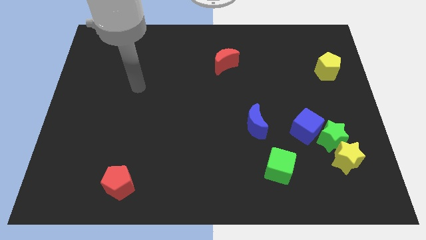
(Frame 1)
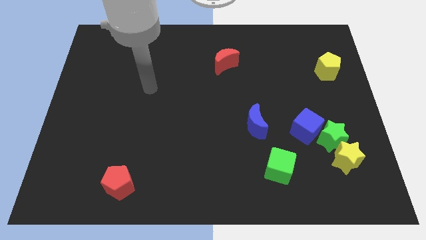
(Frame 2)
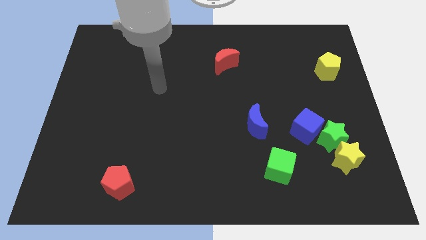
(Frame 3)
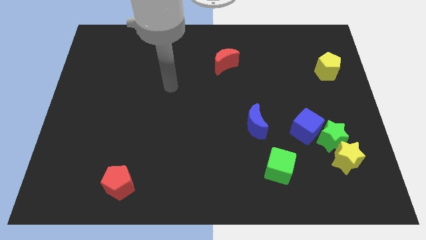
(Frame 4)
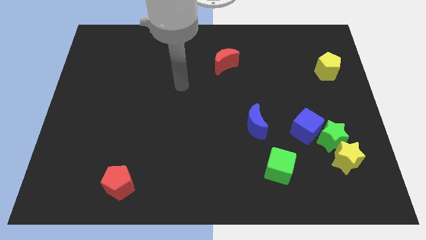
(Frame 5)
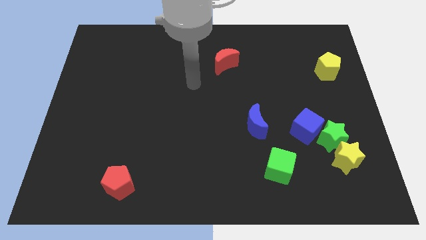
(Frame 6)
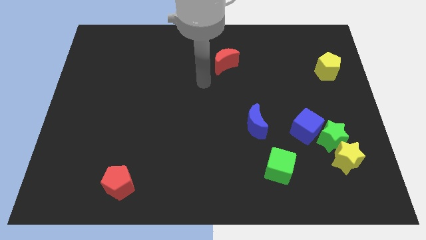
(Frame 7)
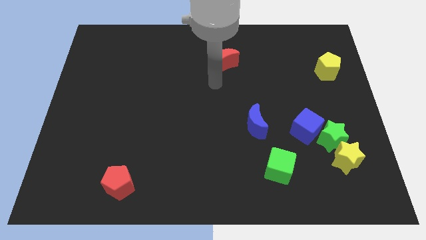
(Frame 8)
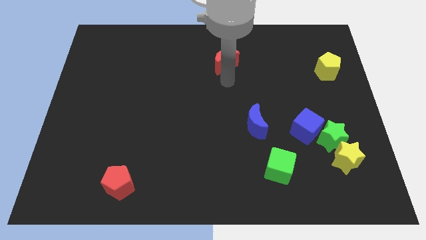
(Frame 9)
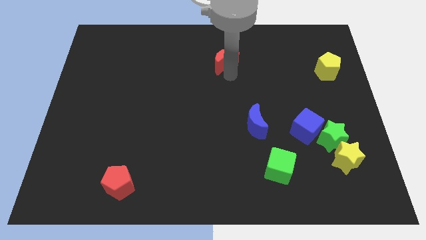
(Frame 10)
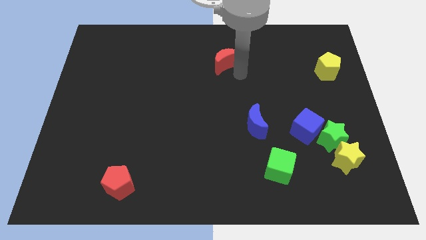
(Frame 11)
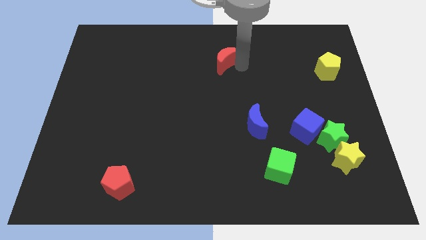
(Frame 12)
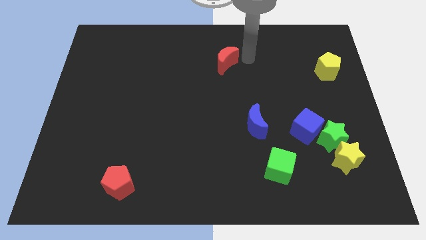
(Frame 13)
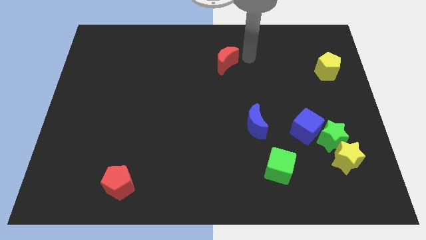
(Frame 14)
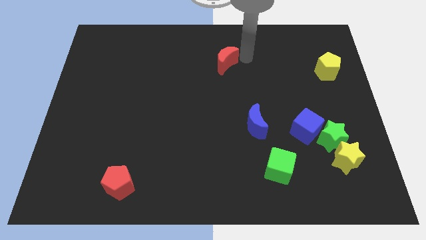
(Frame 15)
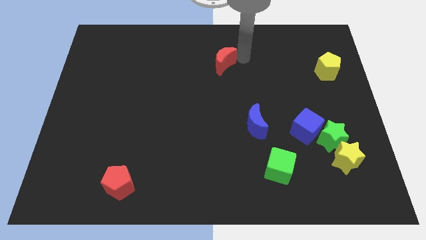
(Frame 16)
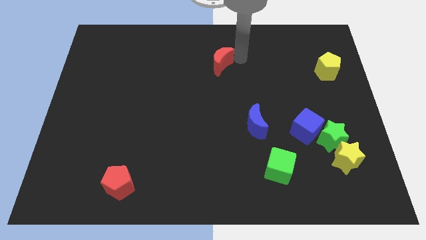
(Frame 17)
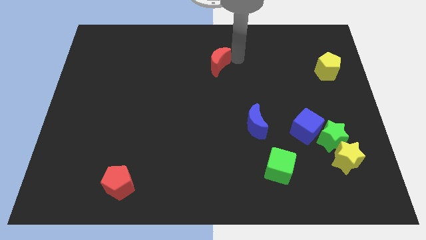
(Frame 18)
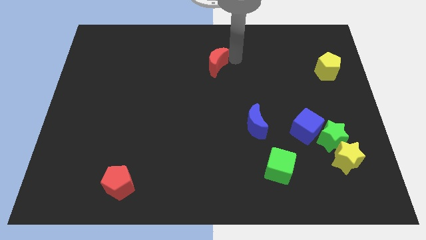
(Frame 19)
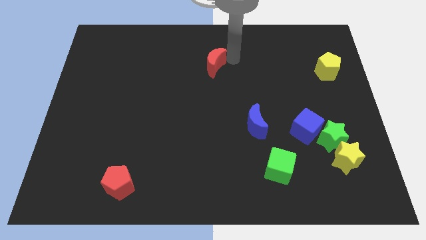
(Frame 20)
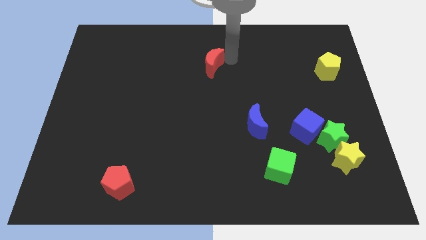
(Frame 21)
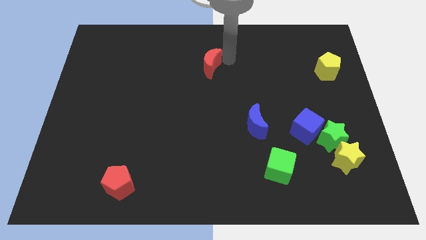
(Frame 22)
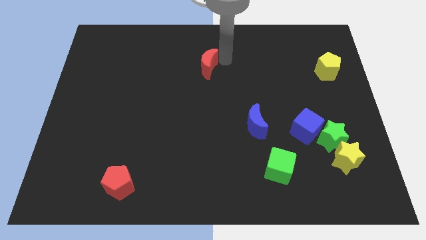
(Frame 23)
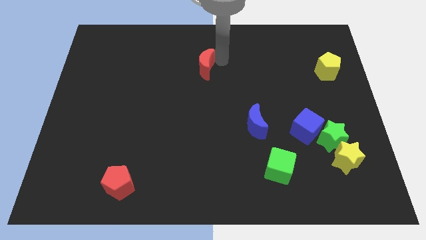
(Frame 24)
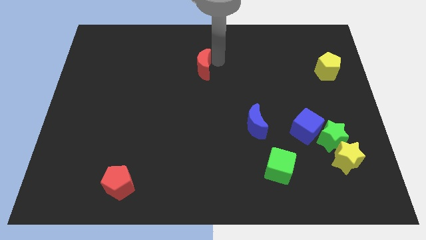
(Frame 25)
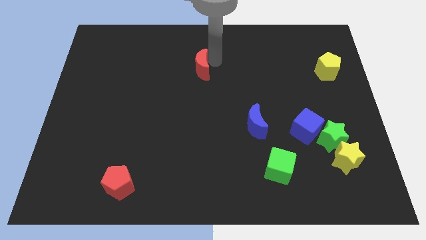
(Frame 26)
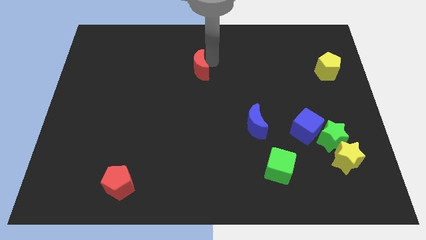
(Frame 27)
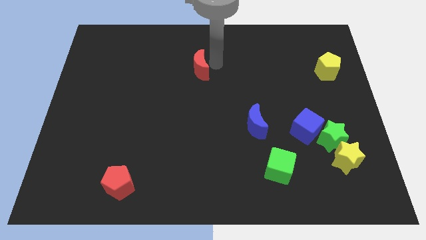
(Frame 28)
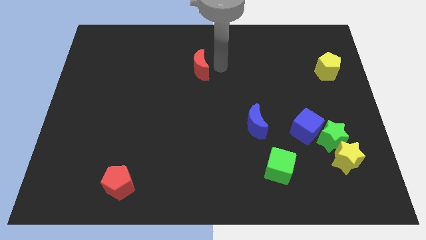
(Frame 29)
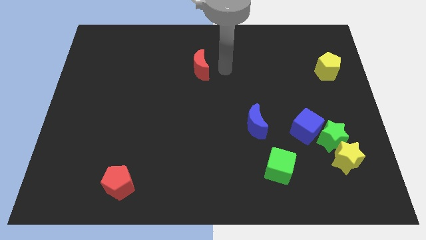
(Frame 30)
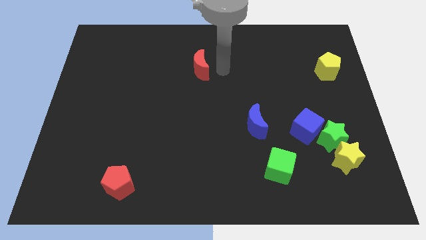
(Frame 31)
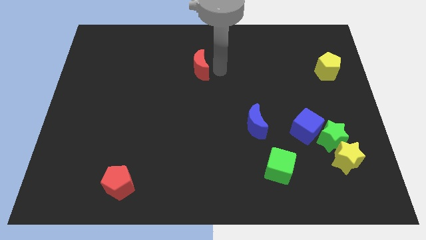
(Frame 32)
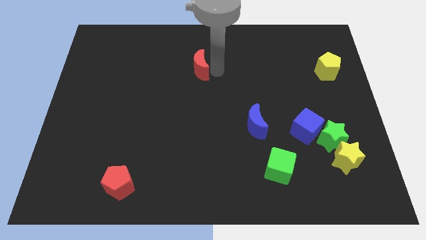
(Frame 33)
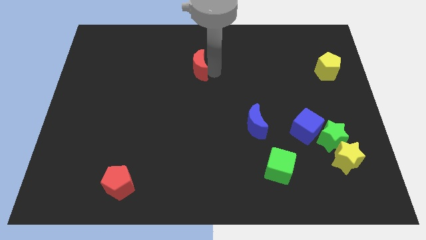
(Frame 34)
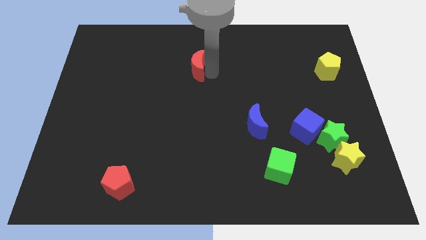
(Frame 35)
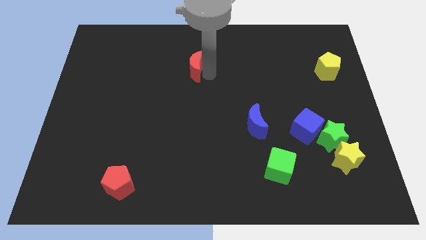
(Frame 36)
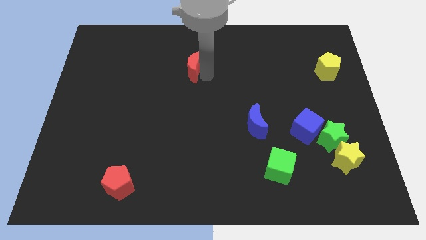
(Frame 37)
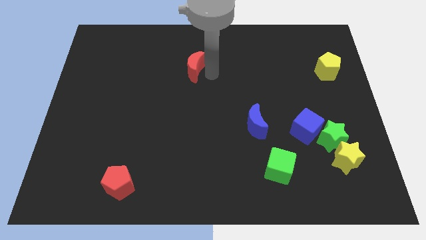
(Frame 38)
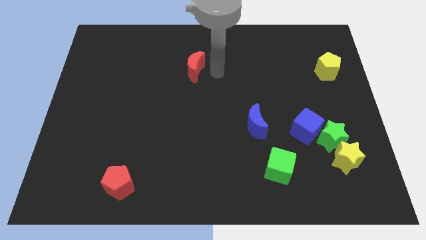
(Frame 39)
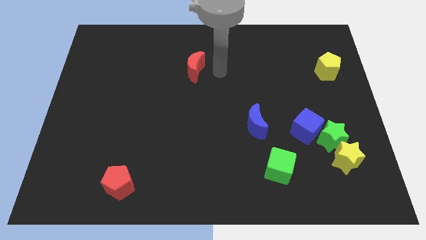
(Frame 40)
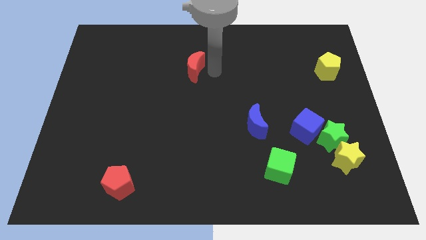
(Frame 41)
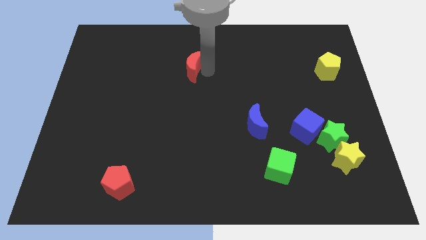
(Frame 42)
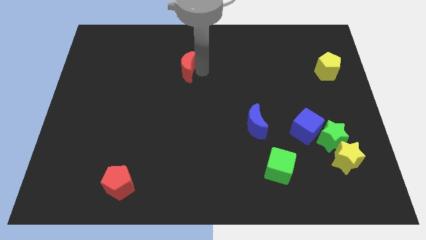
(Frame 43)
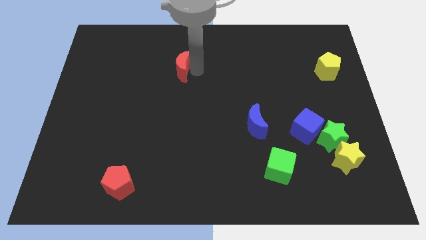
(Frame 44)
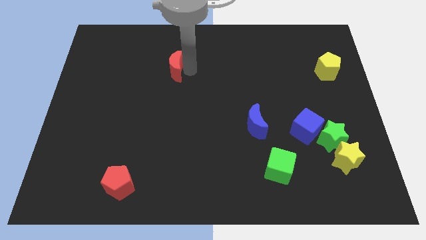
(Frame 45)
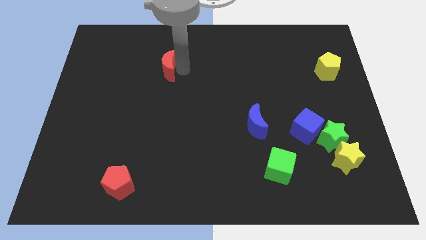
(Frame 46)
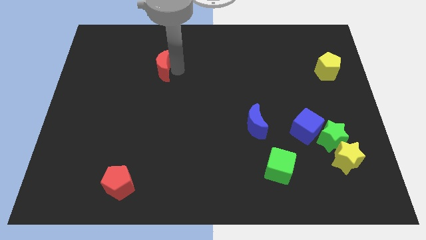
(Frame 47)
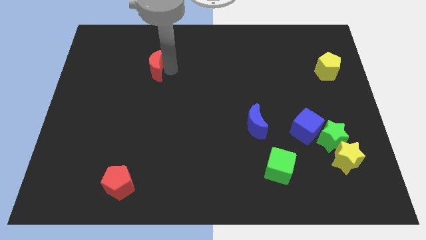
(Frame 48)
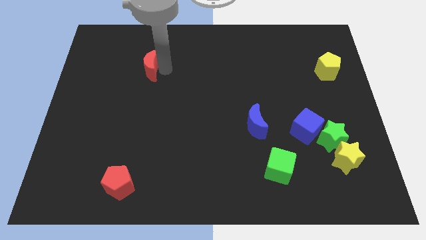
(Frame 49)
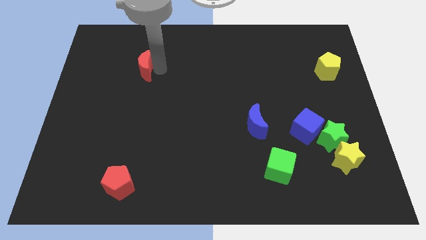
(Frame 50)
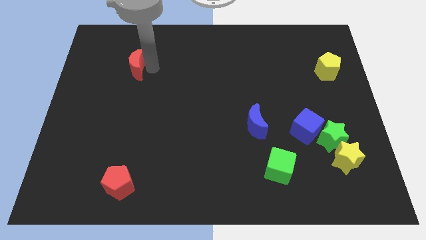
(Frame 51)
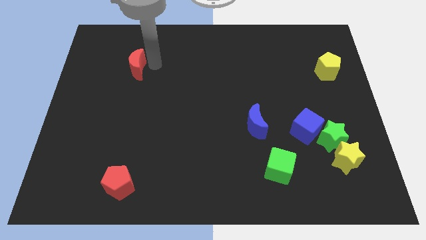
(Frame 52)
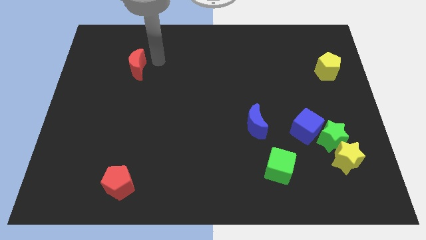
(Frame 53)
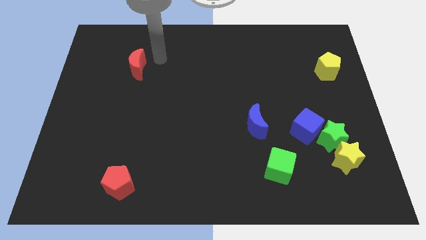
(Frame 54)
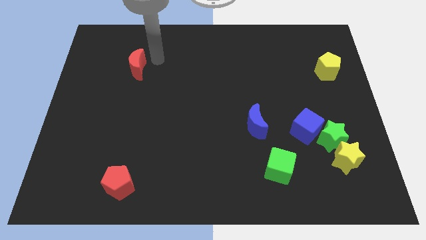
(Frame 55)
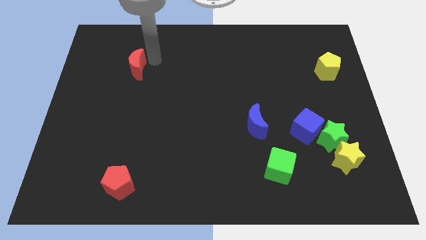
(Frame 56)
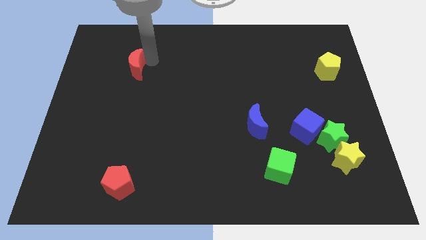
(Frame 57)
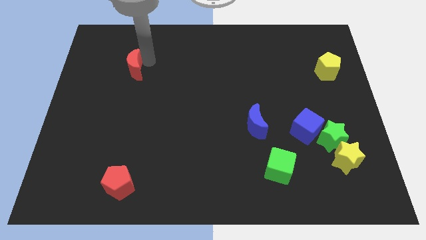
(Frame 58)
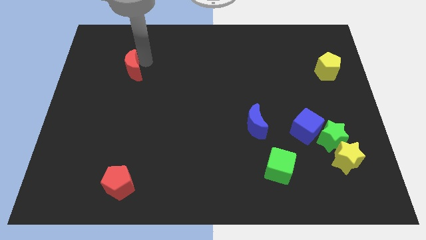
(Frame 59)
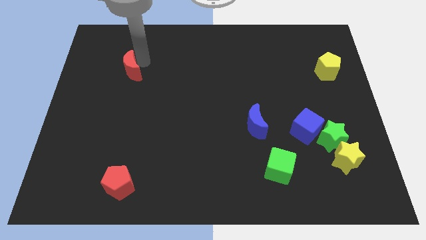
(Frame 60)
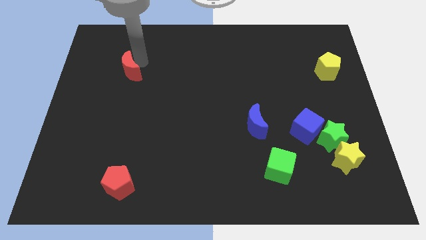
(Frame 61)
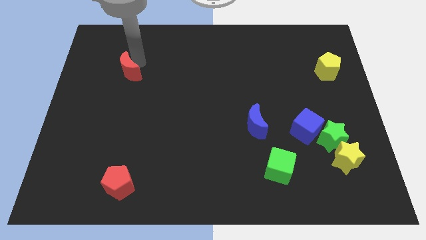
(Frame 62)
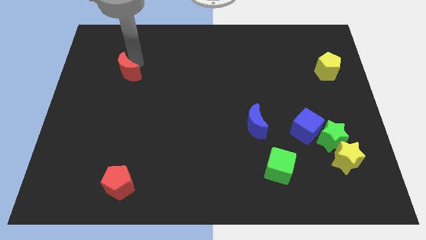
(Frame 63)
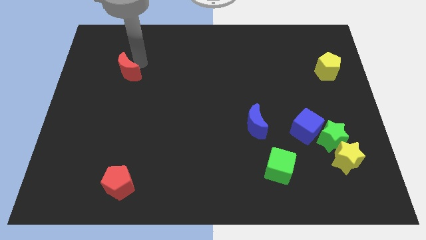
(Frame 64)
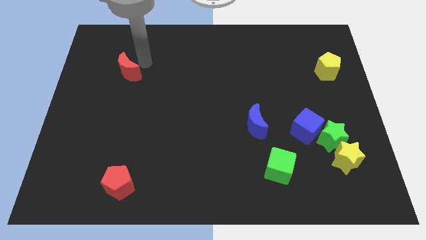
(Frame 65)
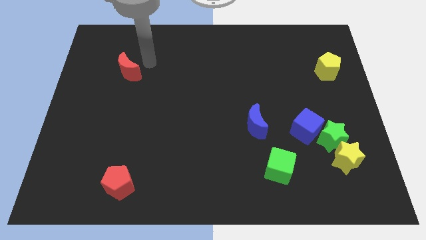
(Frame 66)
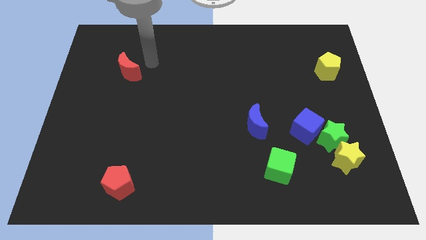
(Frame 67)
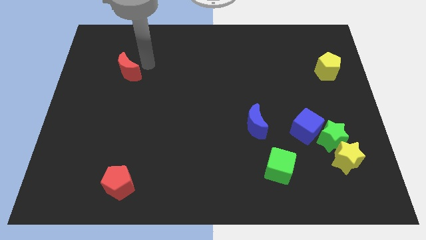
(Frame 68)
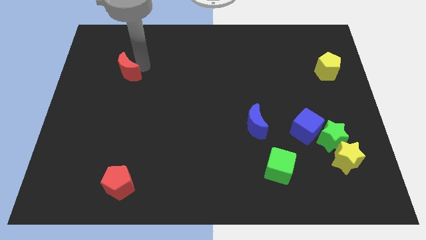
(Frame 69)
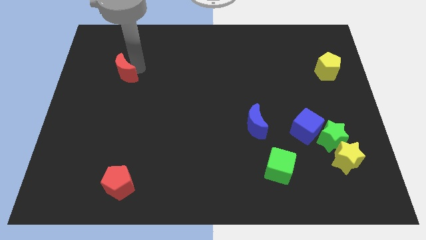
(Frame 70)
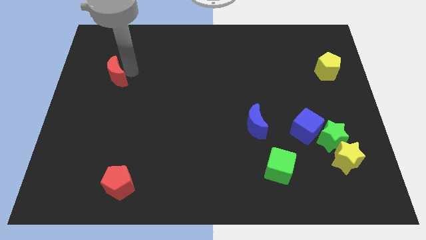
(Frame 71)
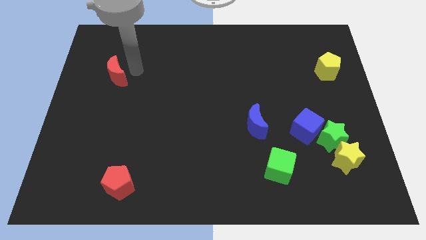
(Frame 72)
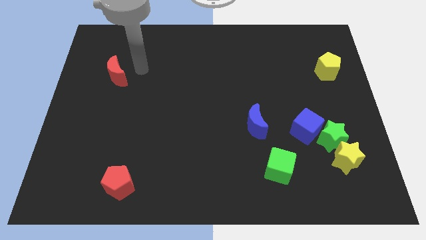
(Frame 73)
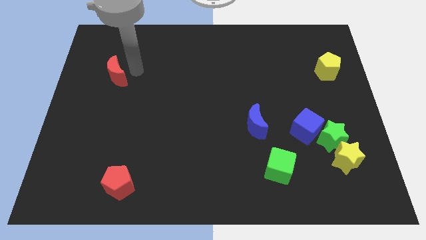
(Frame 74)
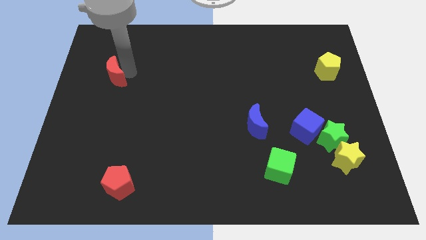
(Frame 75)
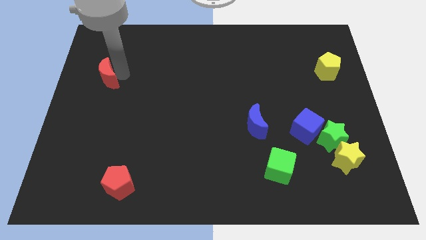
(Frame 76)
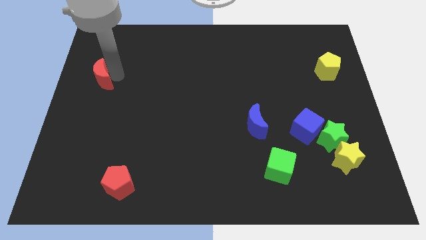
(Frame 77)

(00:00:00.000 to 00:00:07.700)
slide the red moon to the left side of the board
